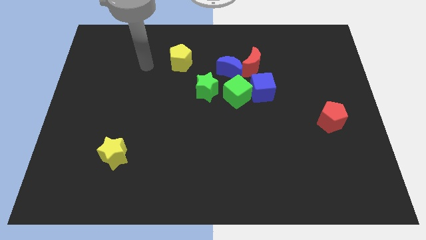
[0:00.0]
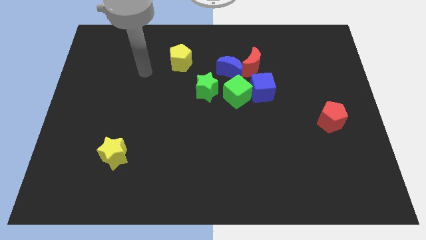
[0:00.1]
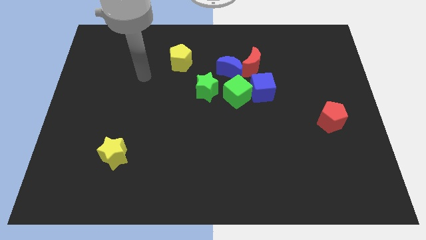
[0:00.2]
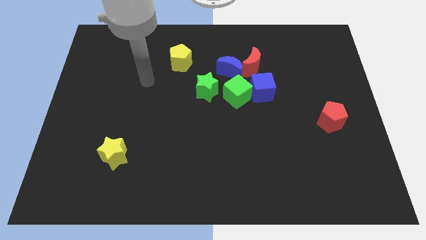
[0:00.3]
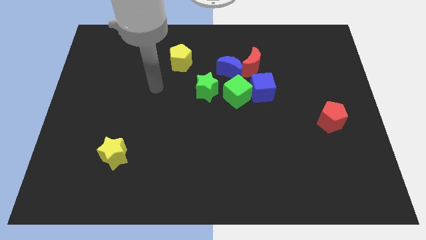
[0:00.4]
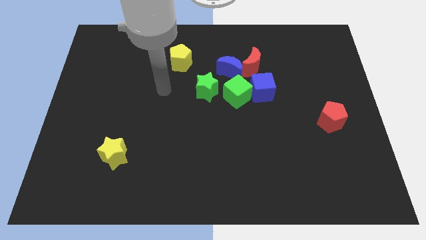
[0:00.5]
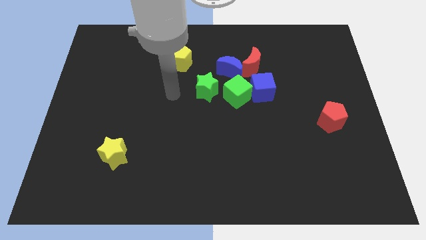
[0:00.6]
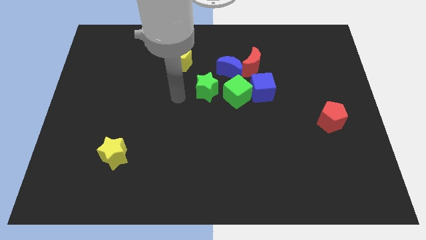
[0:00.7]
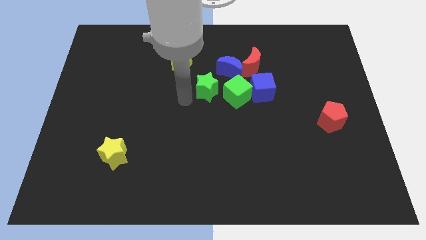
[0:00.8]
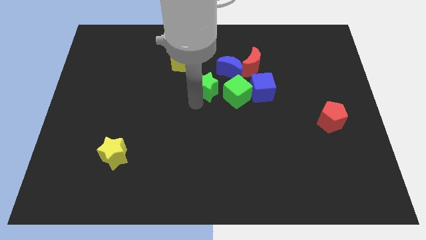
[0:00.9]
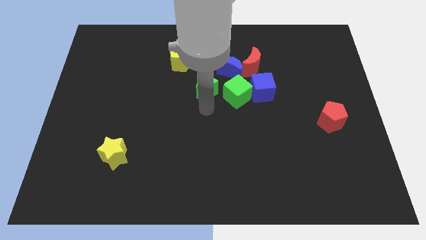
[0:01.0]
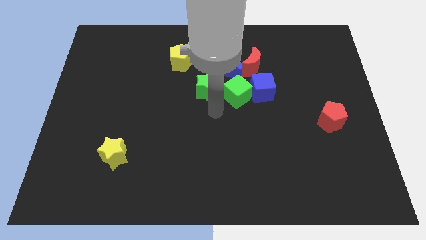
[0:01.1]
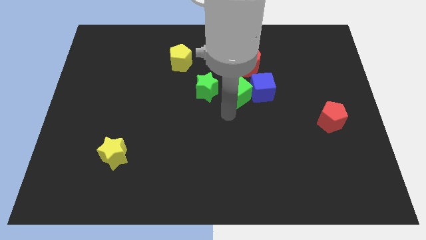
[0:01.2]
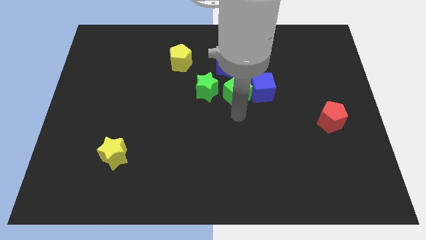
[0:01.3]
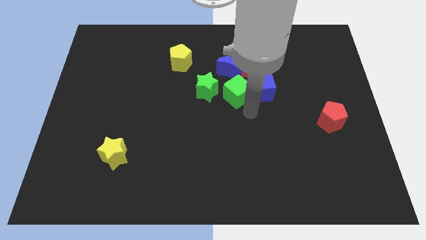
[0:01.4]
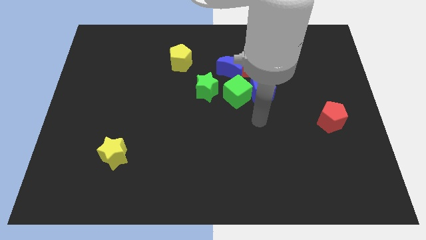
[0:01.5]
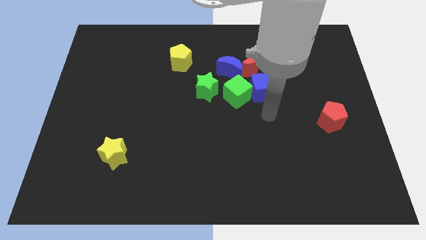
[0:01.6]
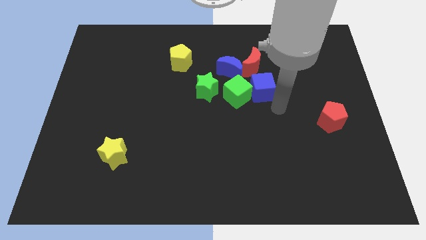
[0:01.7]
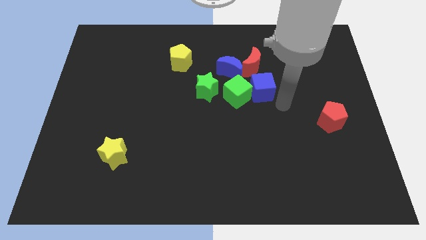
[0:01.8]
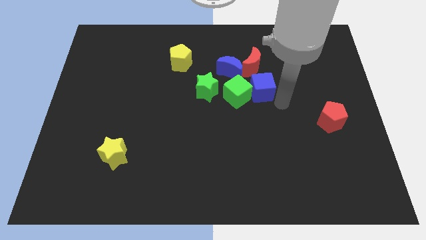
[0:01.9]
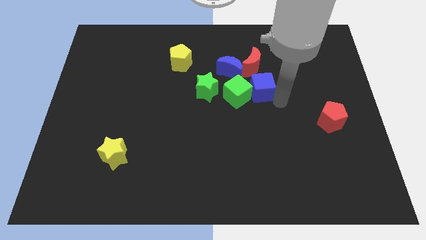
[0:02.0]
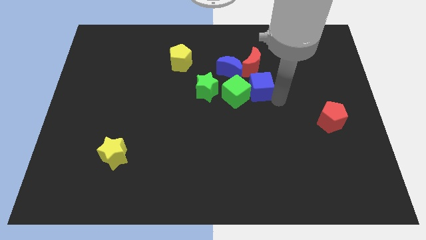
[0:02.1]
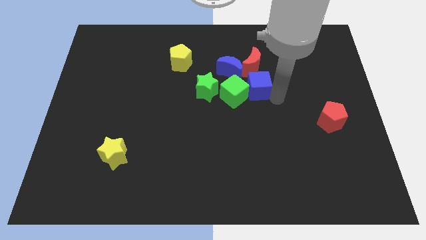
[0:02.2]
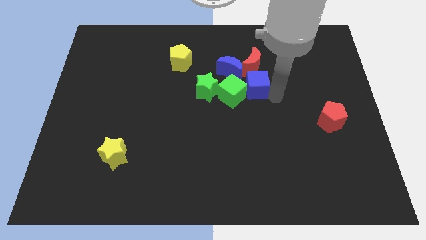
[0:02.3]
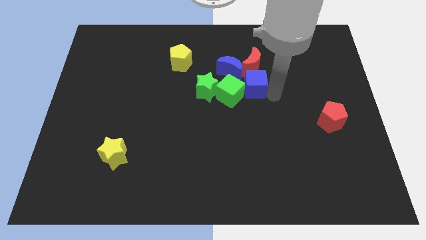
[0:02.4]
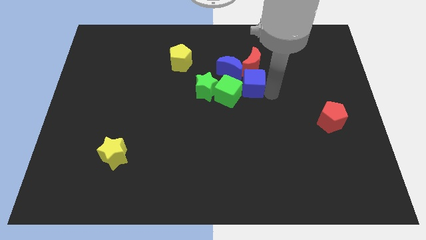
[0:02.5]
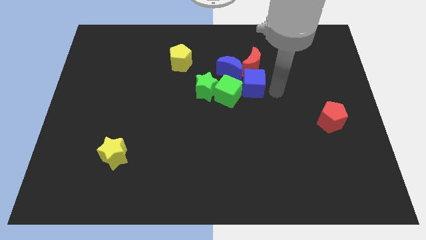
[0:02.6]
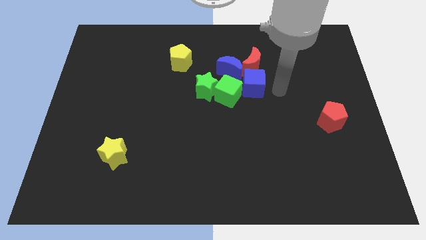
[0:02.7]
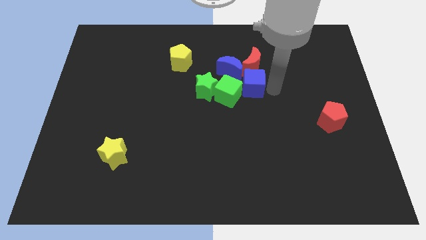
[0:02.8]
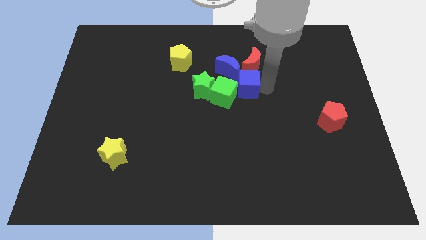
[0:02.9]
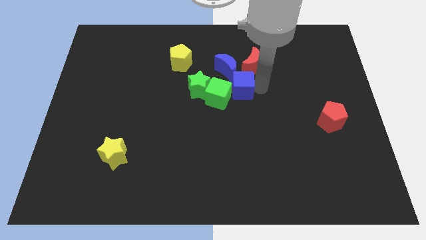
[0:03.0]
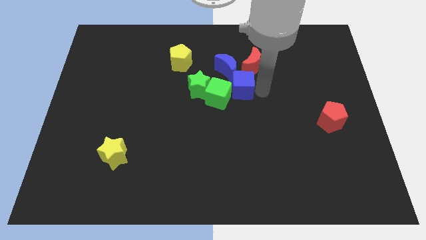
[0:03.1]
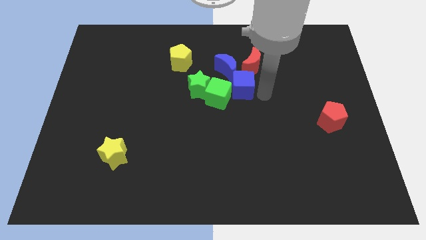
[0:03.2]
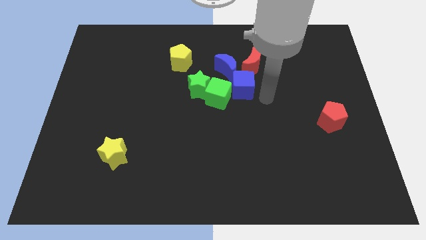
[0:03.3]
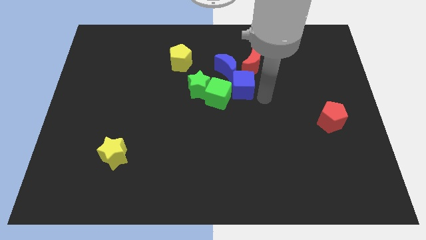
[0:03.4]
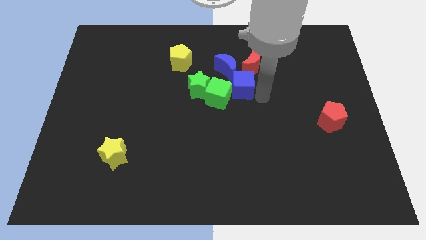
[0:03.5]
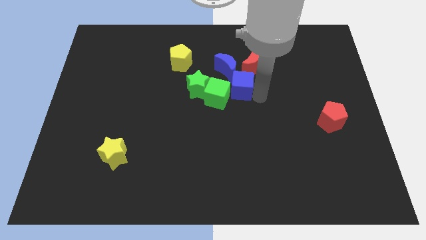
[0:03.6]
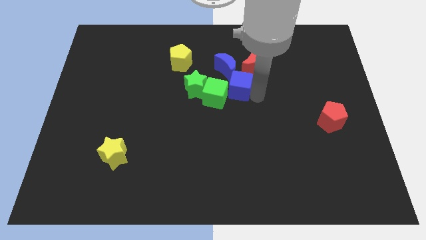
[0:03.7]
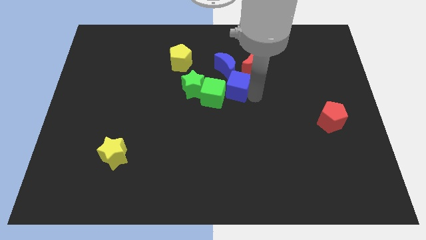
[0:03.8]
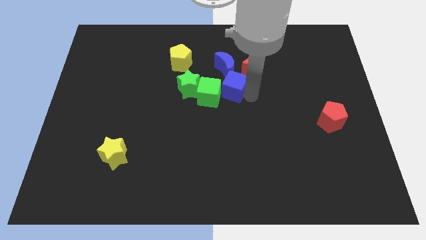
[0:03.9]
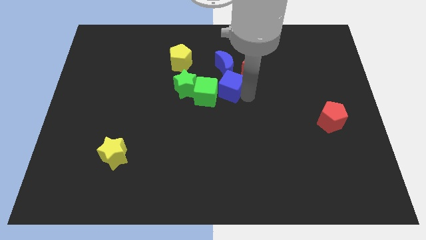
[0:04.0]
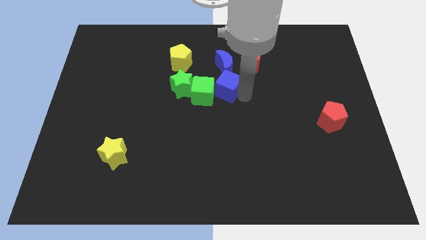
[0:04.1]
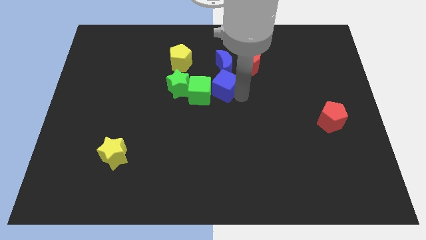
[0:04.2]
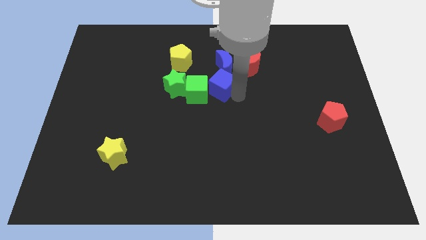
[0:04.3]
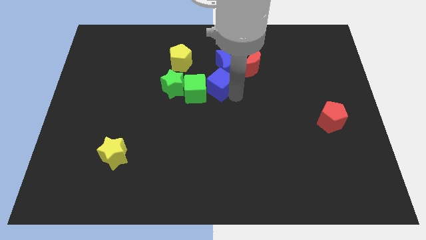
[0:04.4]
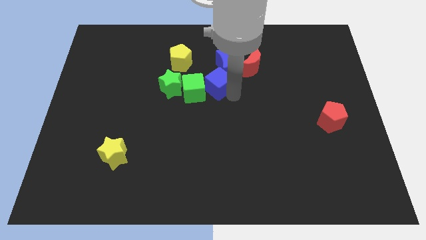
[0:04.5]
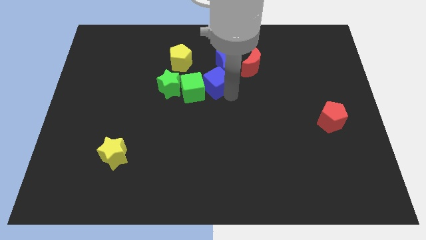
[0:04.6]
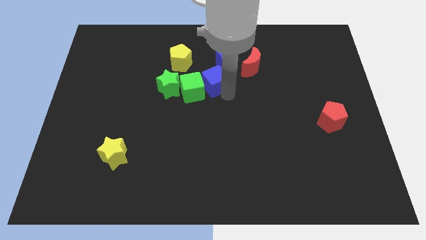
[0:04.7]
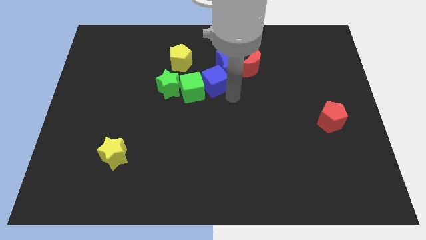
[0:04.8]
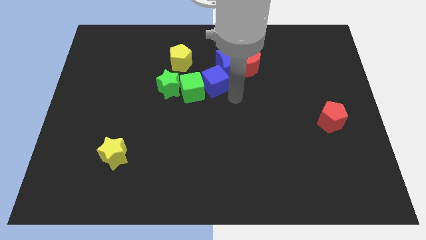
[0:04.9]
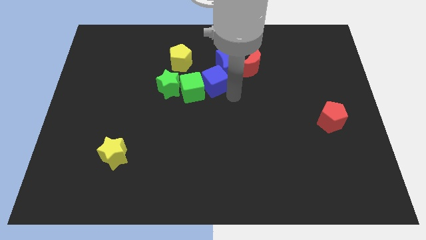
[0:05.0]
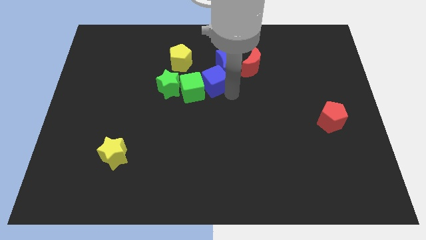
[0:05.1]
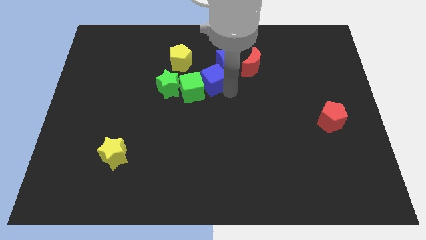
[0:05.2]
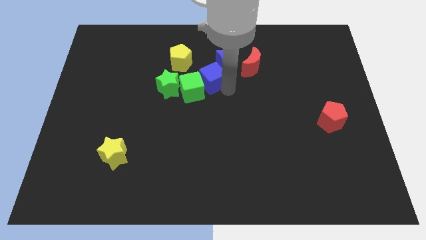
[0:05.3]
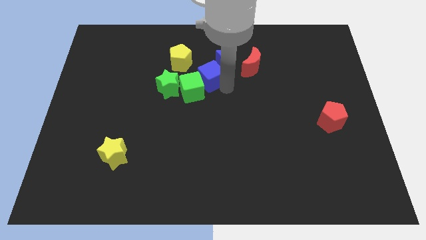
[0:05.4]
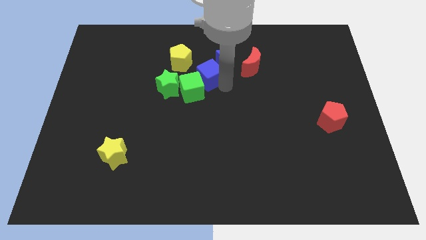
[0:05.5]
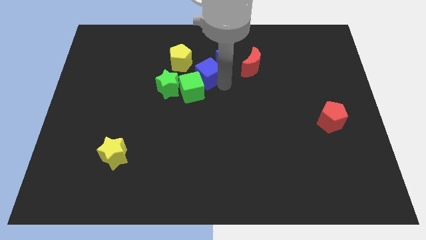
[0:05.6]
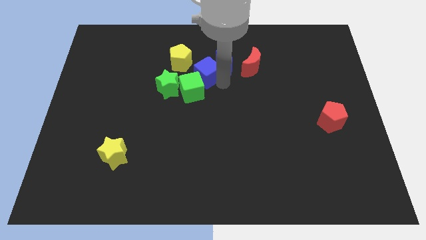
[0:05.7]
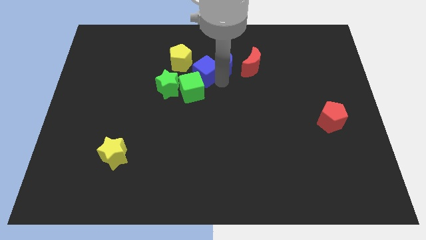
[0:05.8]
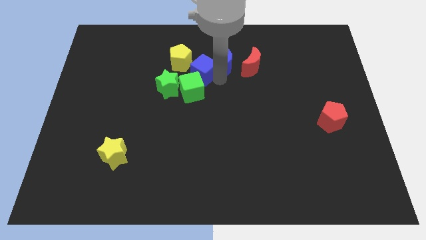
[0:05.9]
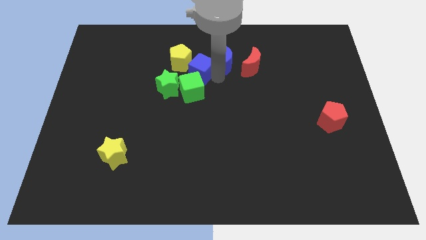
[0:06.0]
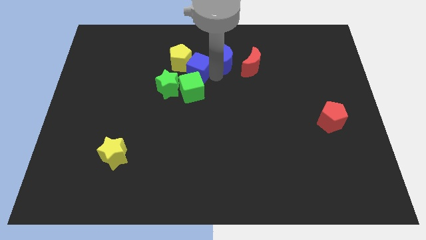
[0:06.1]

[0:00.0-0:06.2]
move the blue cube towards the yellow pentagon

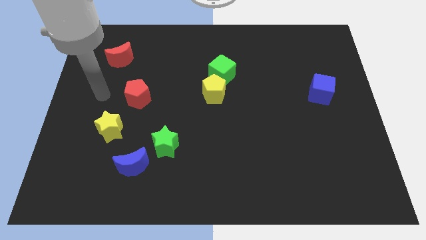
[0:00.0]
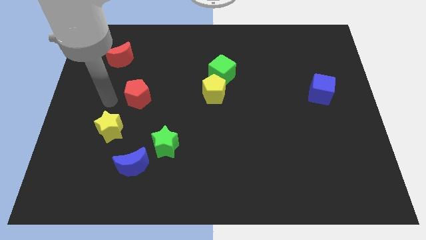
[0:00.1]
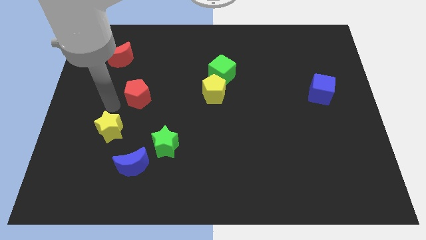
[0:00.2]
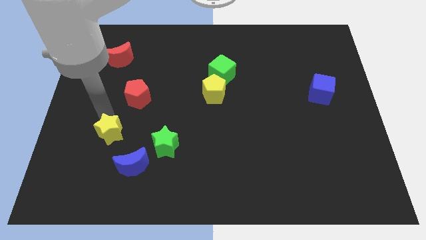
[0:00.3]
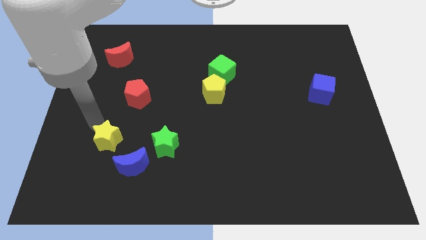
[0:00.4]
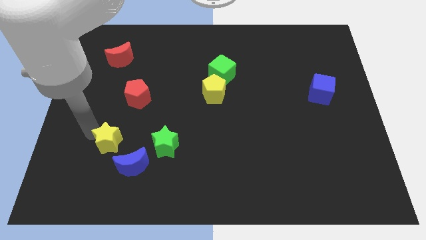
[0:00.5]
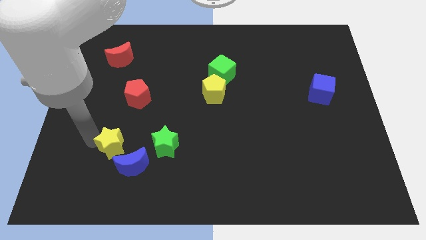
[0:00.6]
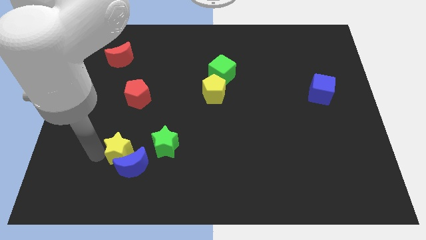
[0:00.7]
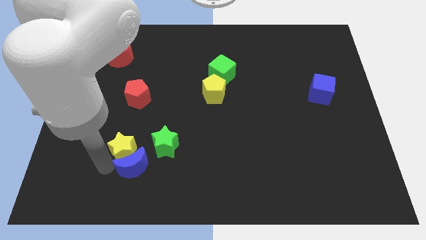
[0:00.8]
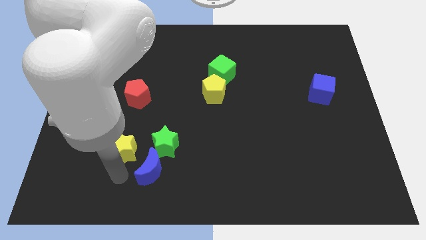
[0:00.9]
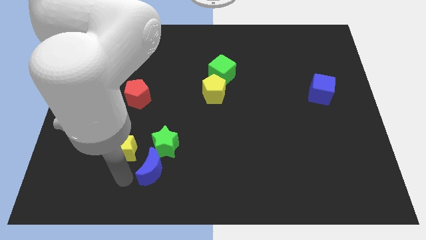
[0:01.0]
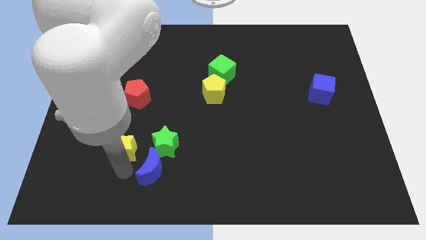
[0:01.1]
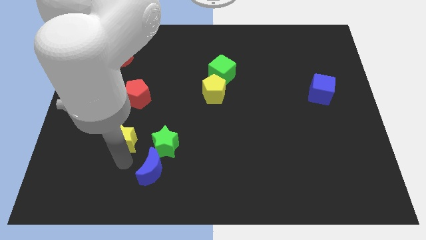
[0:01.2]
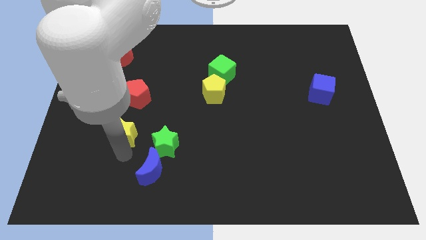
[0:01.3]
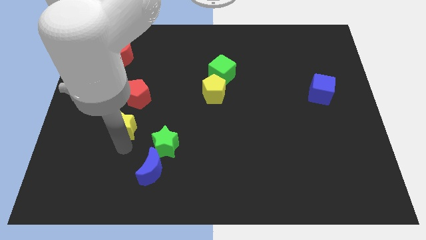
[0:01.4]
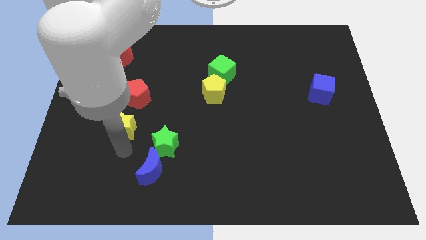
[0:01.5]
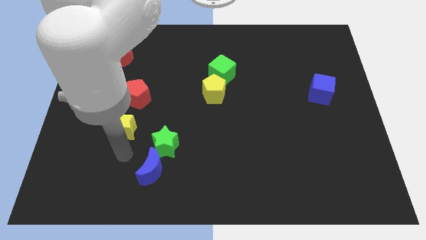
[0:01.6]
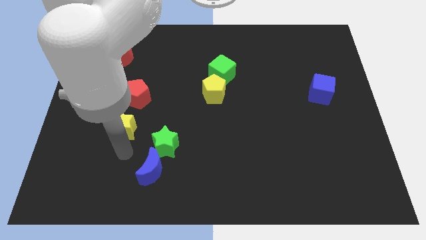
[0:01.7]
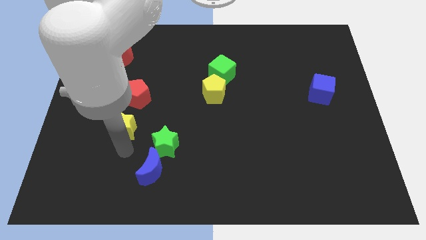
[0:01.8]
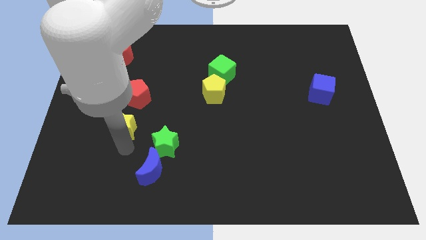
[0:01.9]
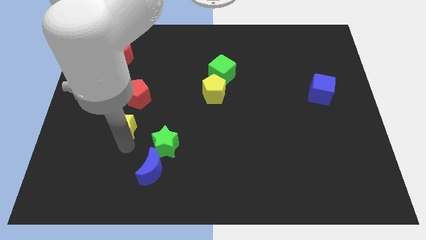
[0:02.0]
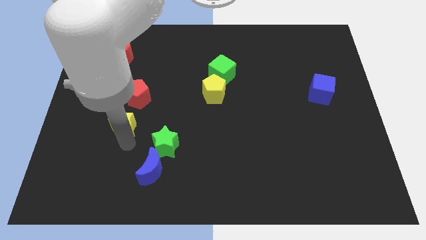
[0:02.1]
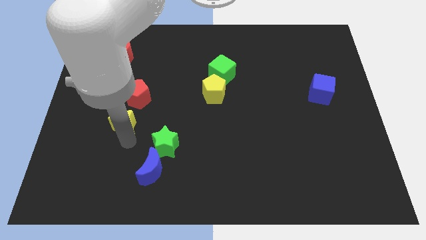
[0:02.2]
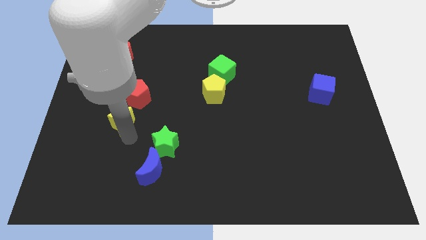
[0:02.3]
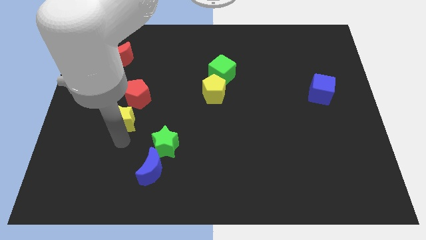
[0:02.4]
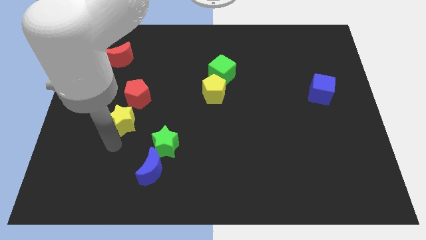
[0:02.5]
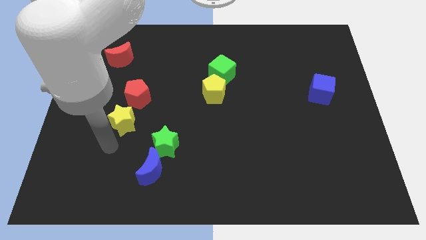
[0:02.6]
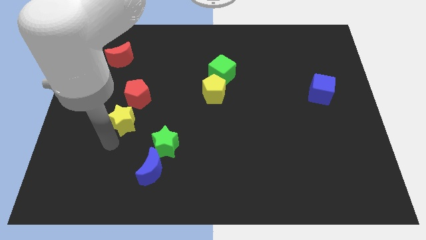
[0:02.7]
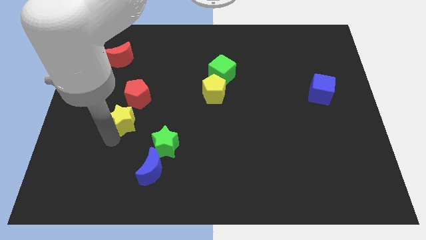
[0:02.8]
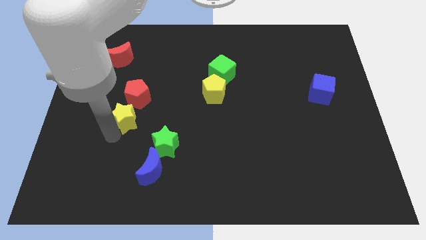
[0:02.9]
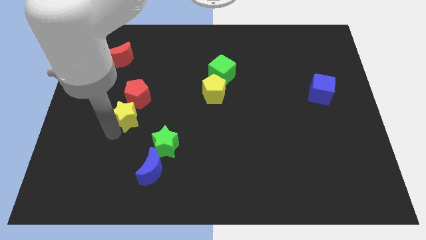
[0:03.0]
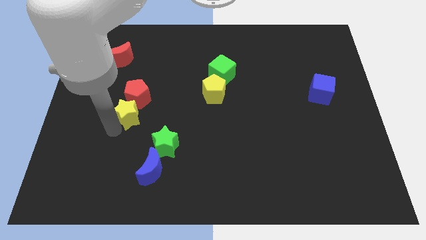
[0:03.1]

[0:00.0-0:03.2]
slide the yellow star close to the red pentagon
